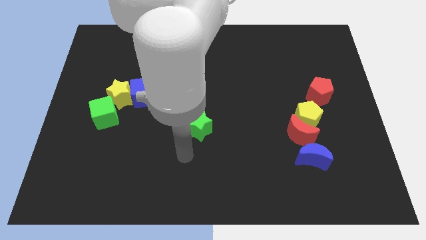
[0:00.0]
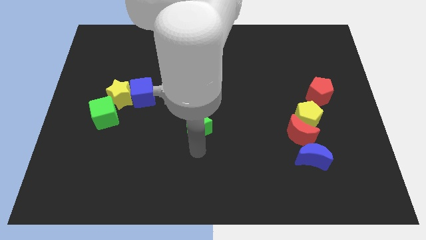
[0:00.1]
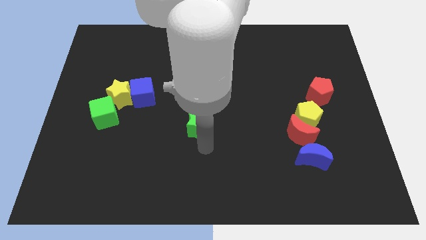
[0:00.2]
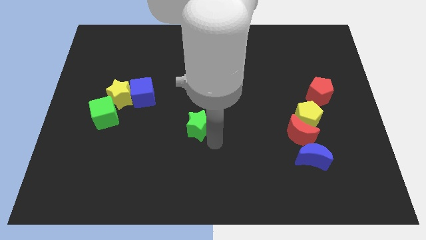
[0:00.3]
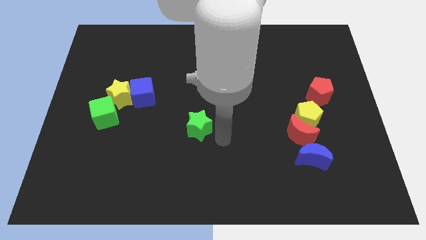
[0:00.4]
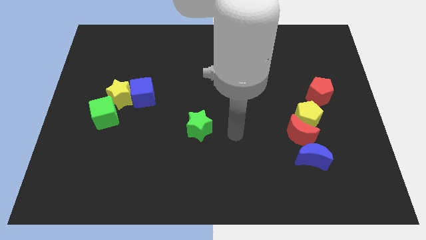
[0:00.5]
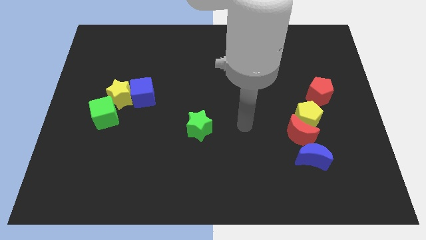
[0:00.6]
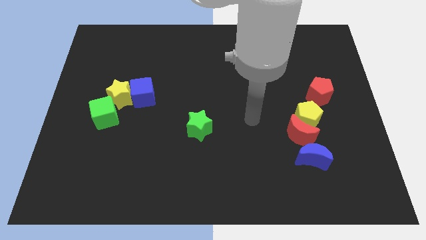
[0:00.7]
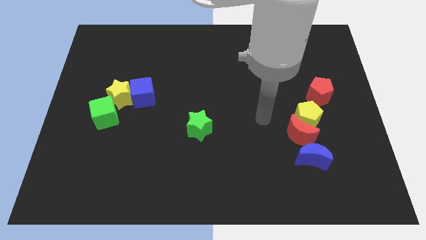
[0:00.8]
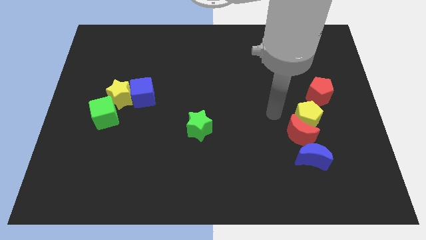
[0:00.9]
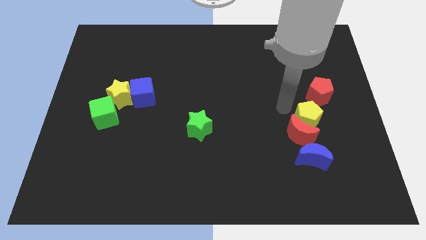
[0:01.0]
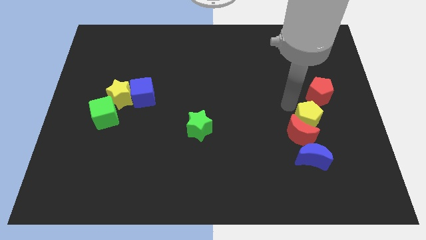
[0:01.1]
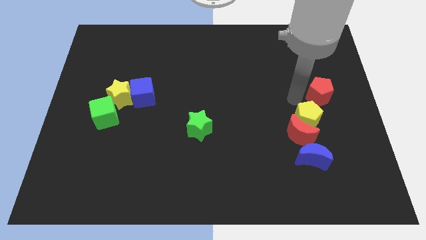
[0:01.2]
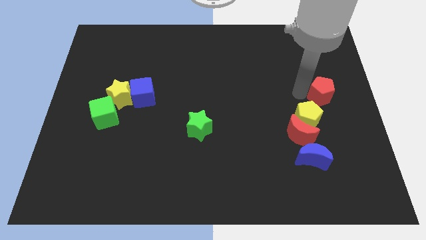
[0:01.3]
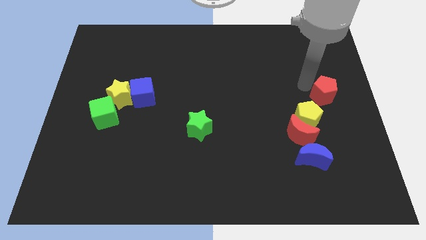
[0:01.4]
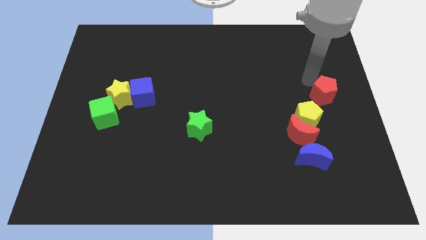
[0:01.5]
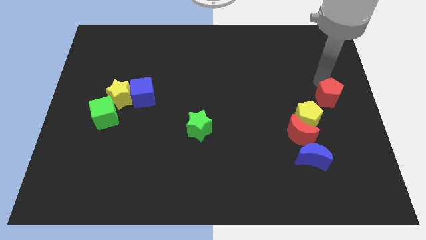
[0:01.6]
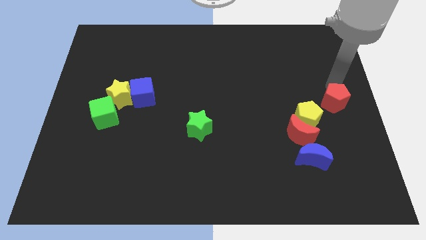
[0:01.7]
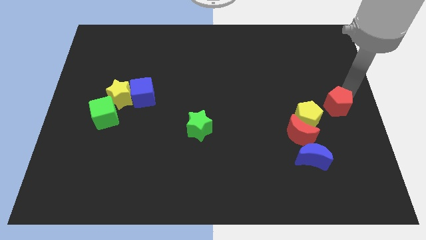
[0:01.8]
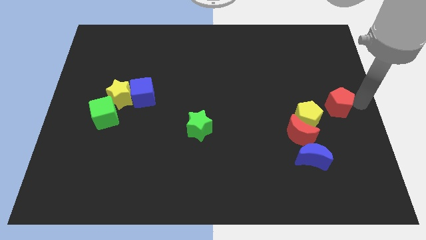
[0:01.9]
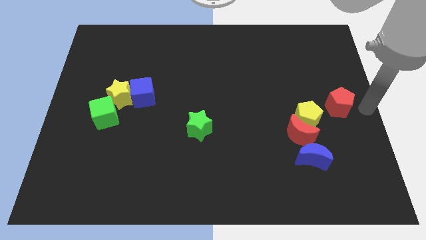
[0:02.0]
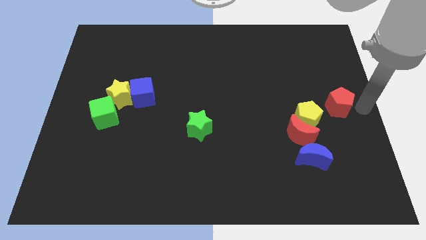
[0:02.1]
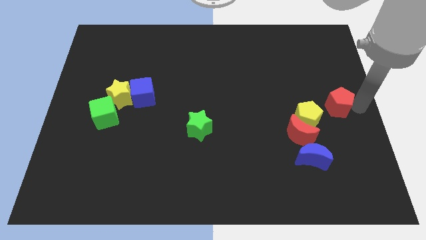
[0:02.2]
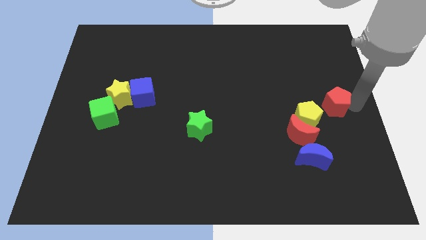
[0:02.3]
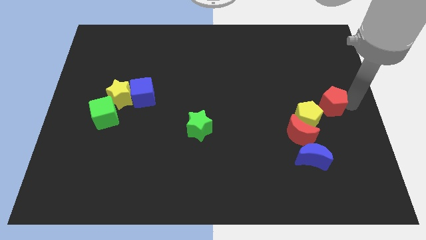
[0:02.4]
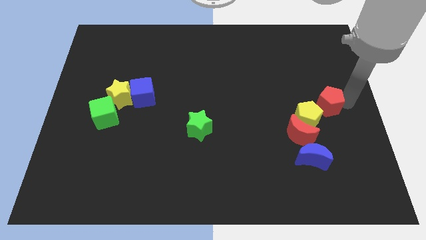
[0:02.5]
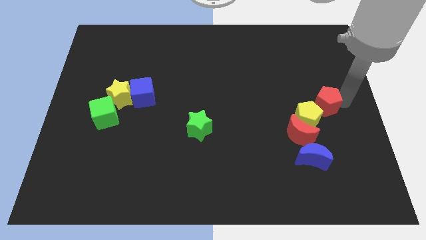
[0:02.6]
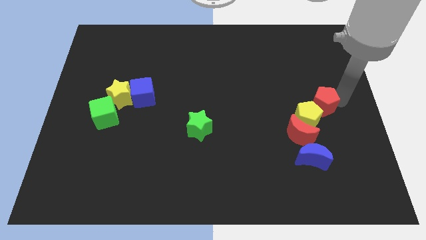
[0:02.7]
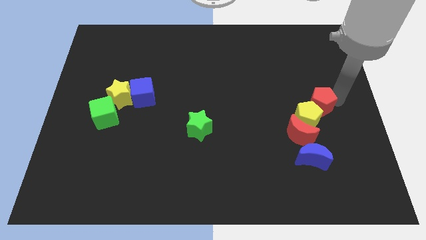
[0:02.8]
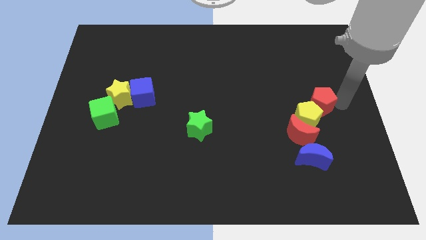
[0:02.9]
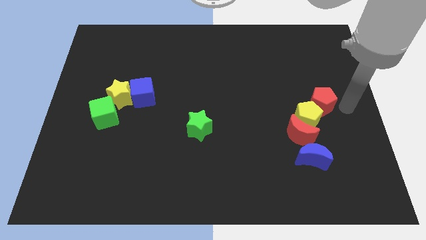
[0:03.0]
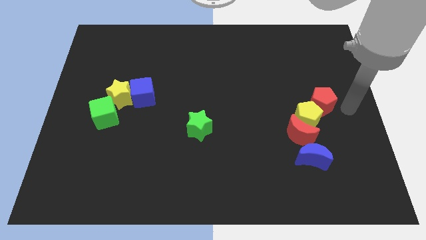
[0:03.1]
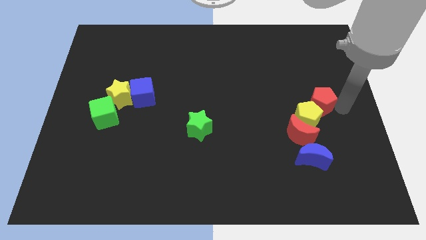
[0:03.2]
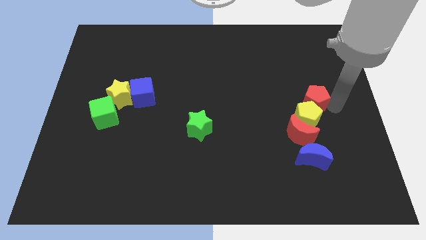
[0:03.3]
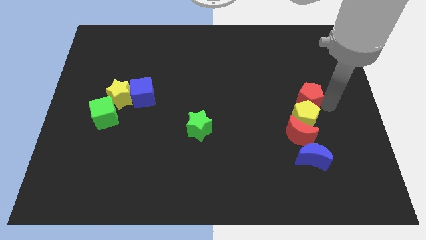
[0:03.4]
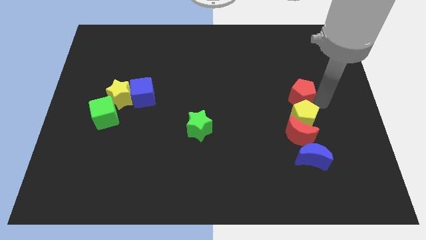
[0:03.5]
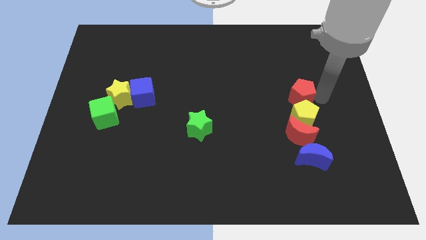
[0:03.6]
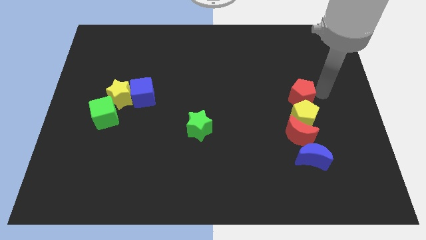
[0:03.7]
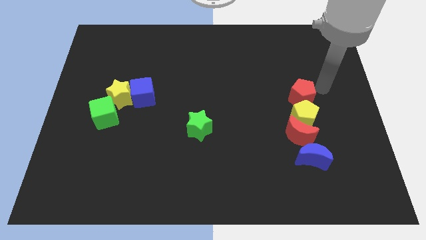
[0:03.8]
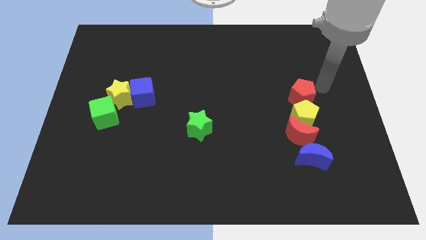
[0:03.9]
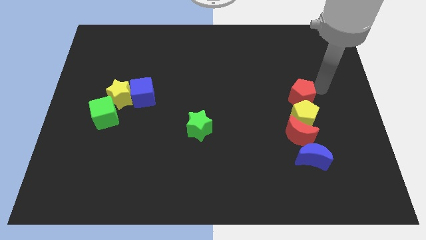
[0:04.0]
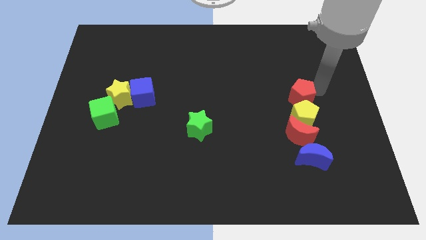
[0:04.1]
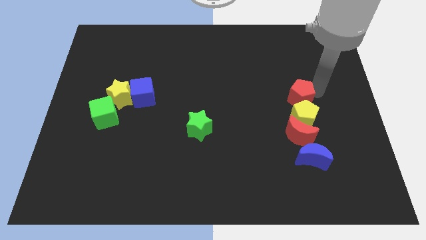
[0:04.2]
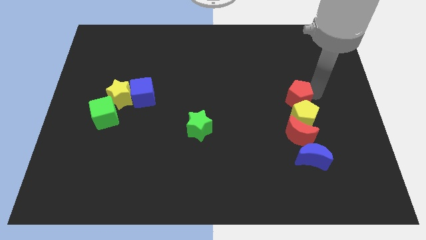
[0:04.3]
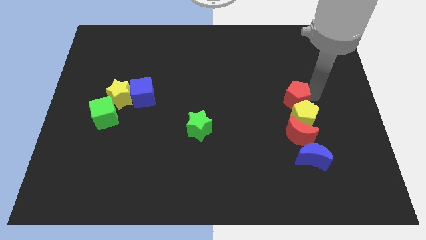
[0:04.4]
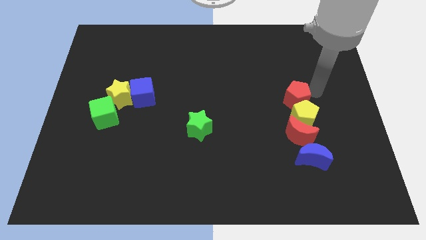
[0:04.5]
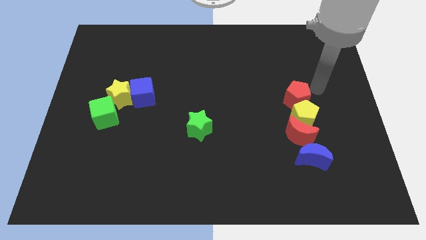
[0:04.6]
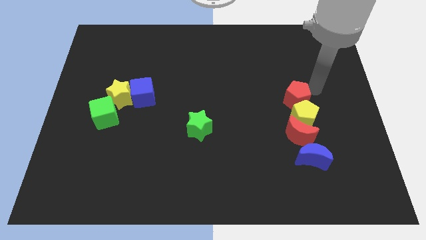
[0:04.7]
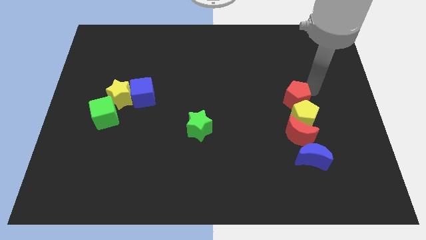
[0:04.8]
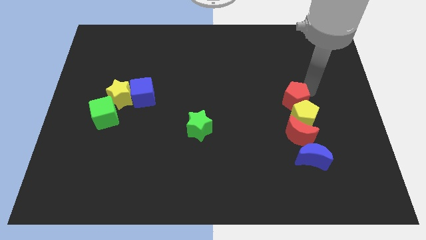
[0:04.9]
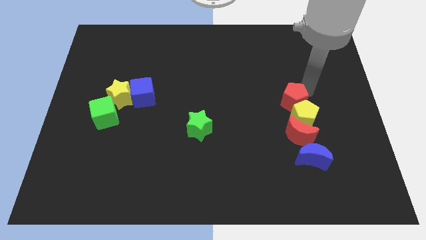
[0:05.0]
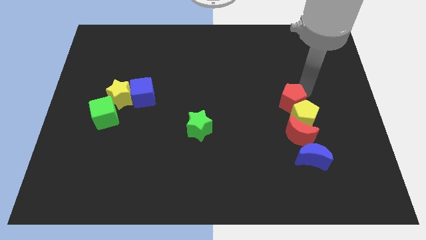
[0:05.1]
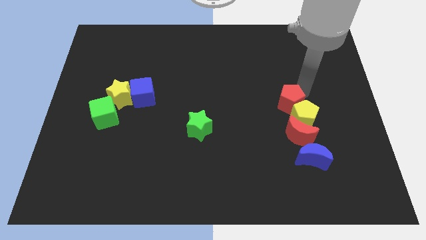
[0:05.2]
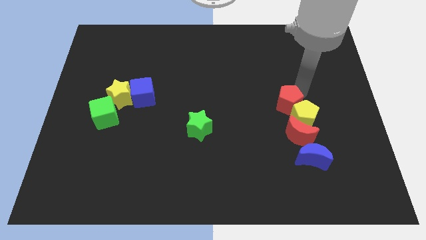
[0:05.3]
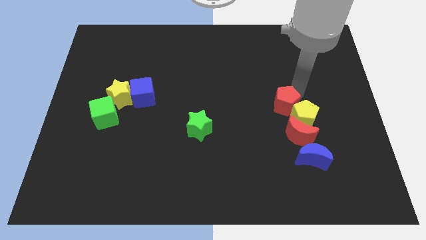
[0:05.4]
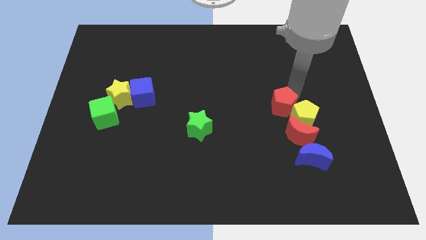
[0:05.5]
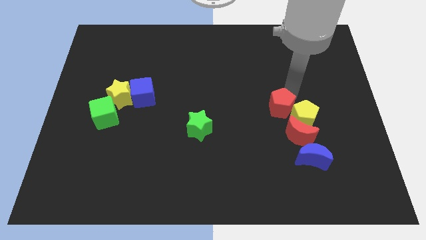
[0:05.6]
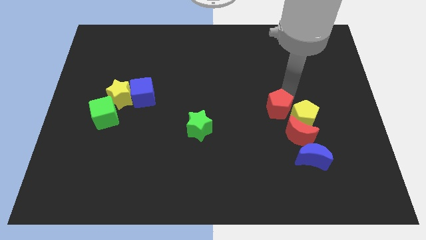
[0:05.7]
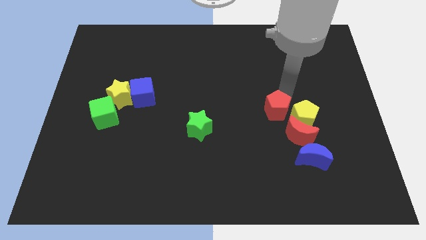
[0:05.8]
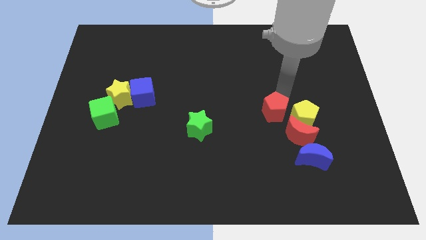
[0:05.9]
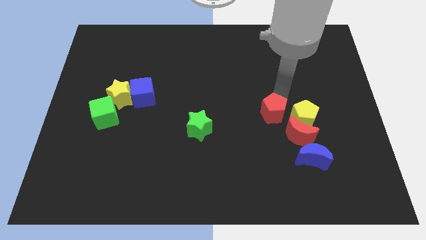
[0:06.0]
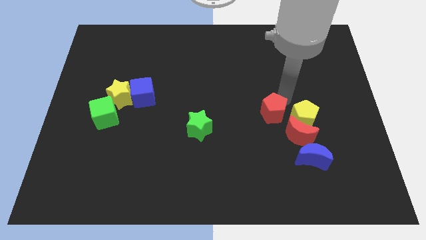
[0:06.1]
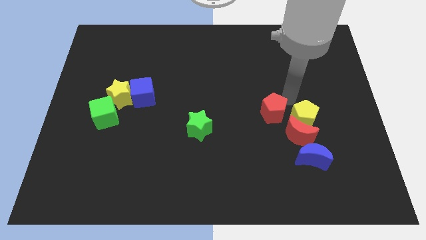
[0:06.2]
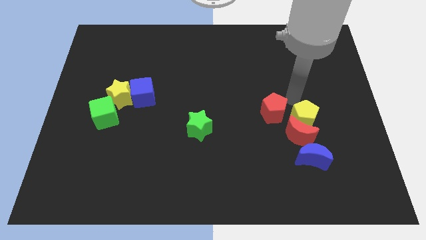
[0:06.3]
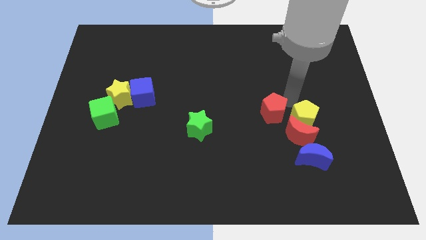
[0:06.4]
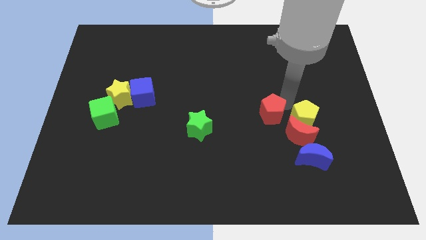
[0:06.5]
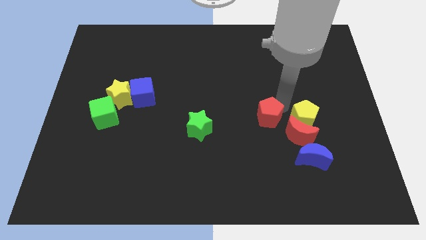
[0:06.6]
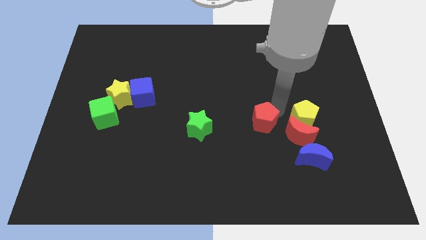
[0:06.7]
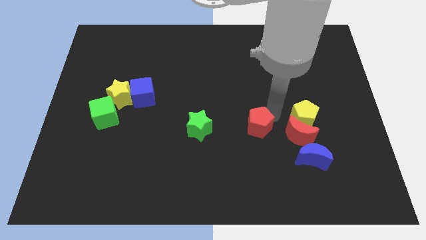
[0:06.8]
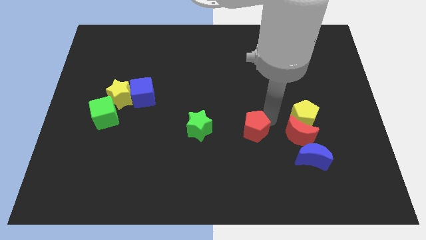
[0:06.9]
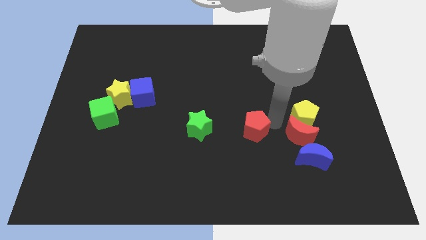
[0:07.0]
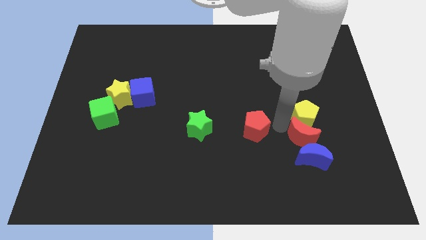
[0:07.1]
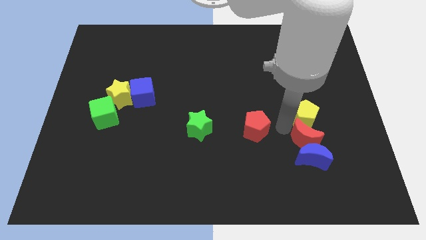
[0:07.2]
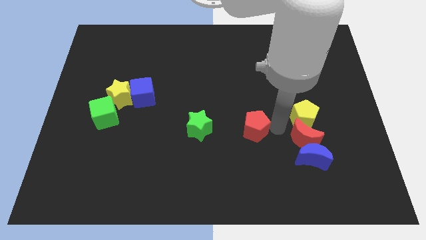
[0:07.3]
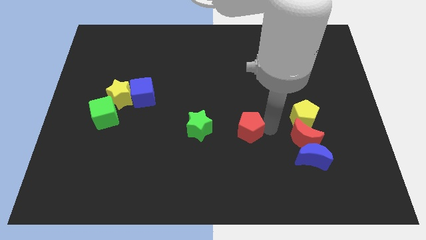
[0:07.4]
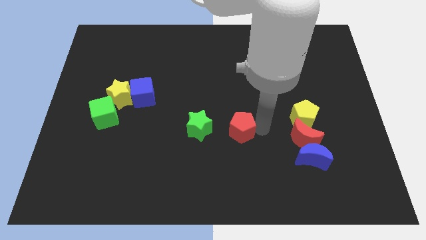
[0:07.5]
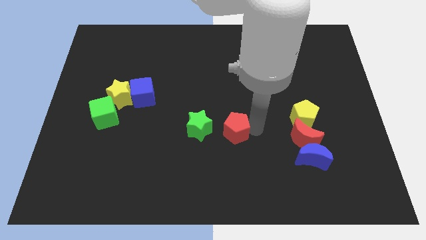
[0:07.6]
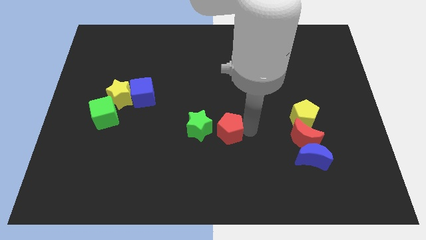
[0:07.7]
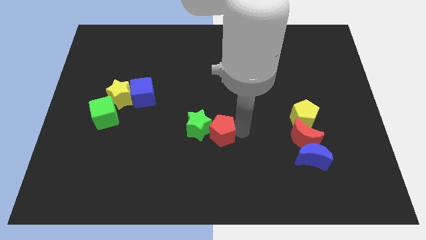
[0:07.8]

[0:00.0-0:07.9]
push the red pentagon to the green star

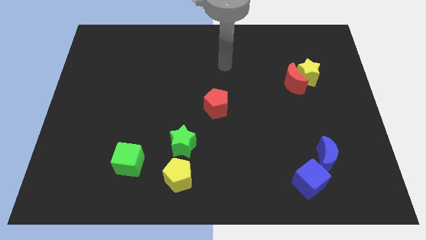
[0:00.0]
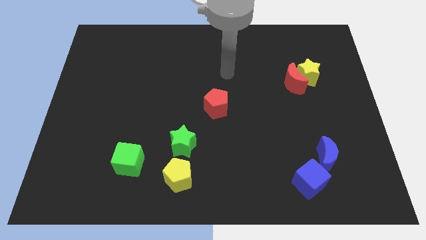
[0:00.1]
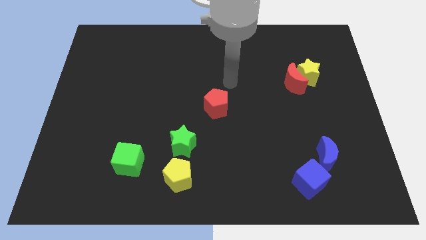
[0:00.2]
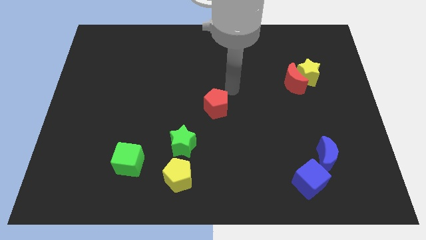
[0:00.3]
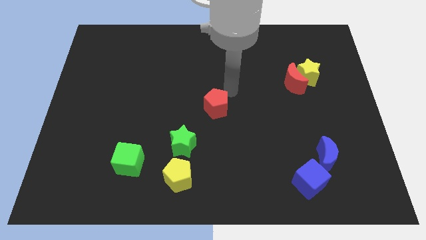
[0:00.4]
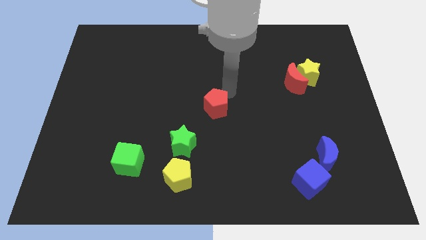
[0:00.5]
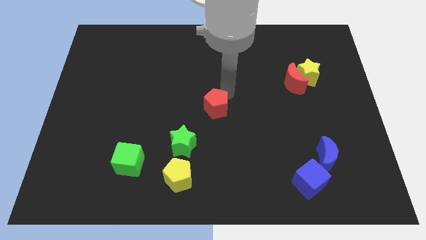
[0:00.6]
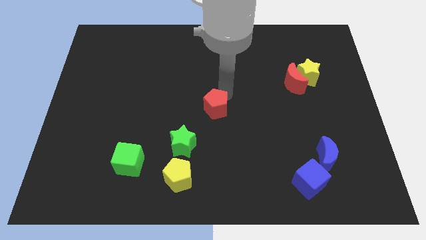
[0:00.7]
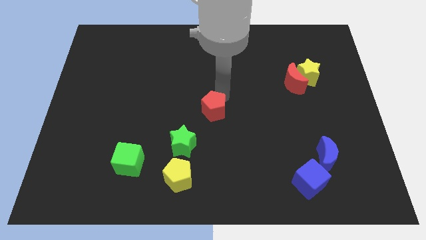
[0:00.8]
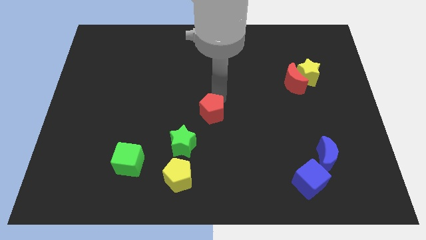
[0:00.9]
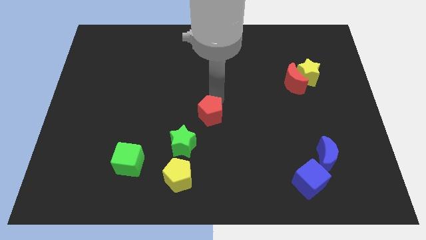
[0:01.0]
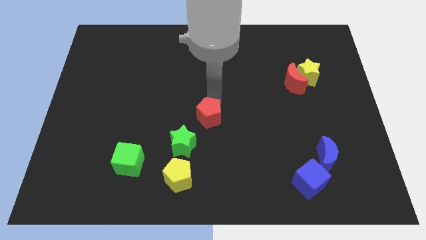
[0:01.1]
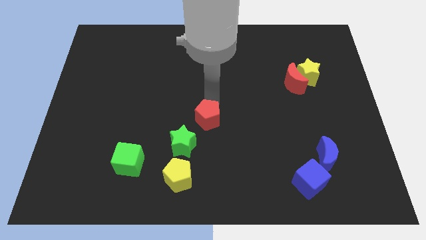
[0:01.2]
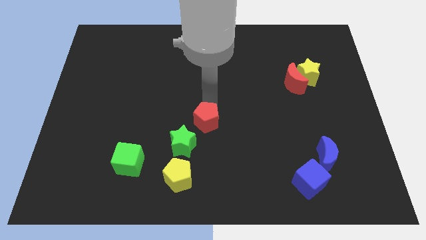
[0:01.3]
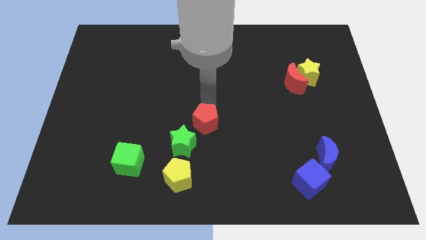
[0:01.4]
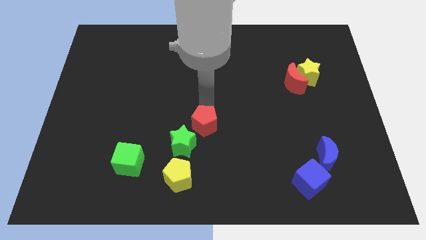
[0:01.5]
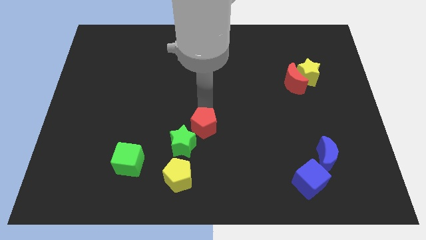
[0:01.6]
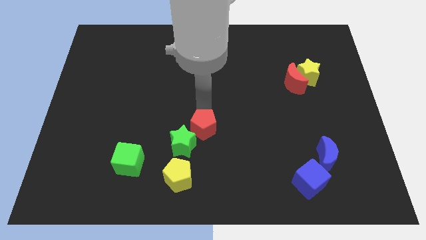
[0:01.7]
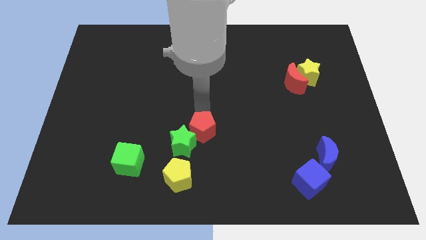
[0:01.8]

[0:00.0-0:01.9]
push the red pentagon close to the green star
